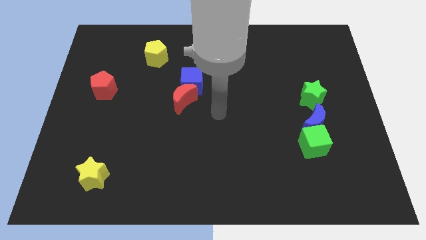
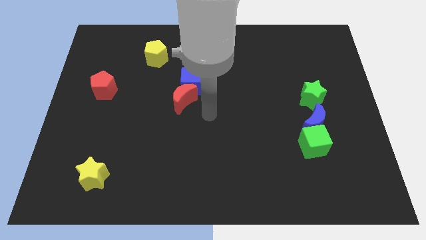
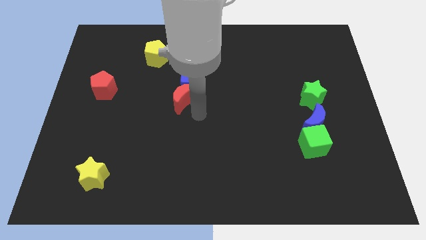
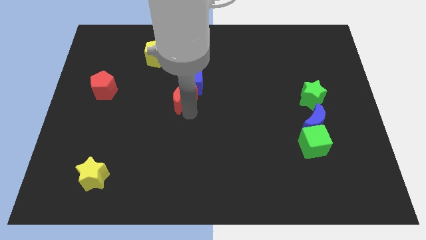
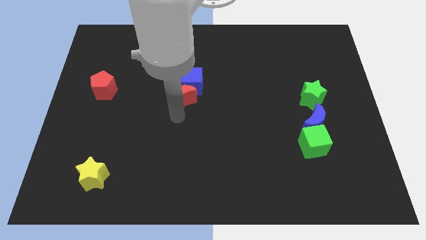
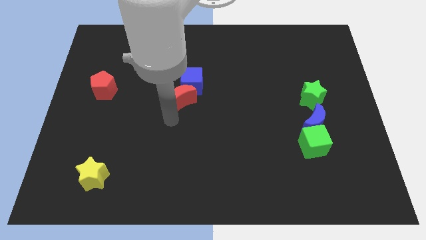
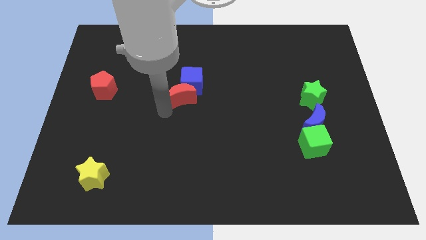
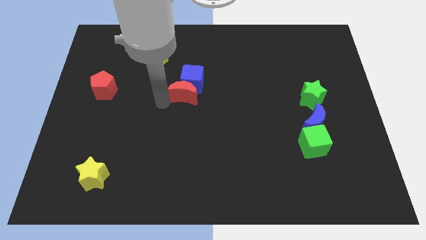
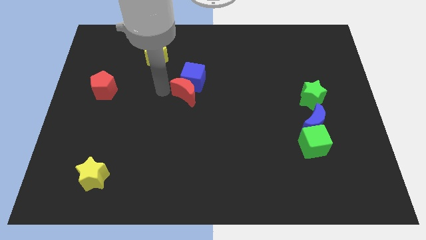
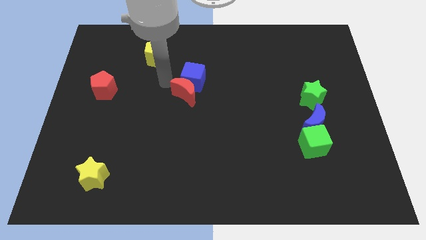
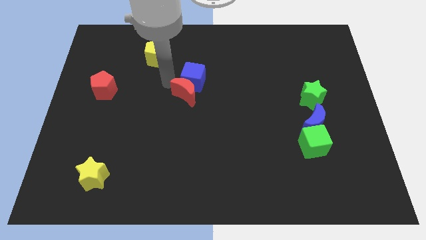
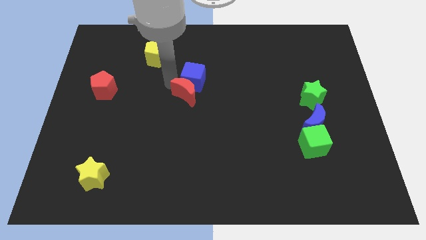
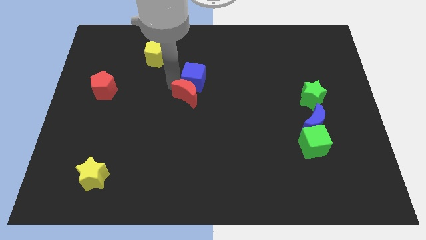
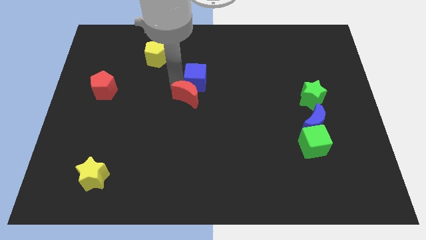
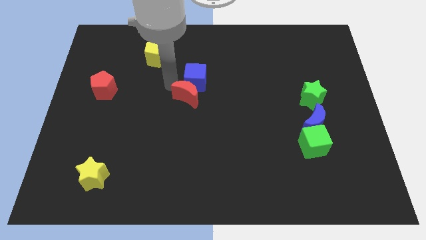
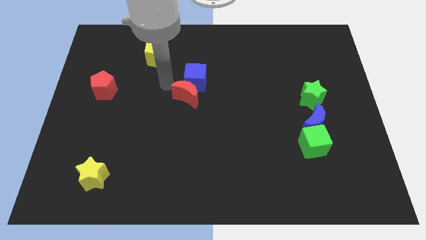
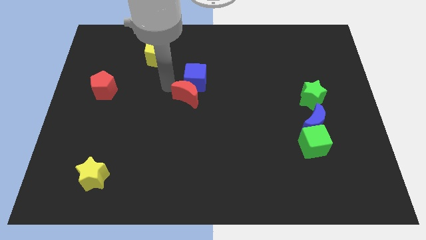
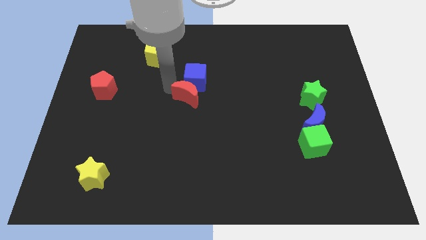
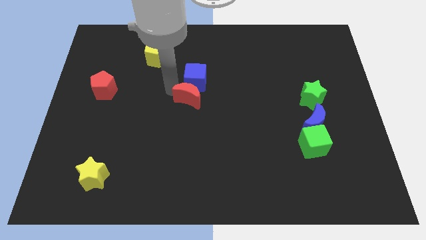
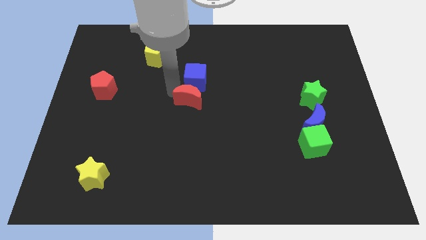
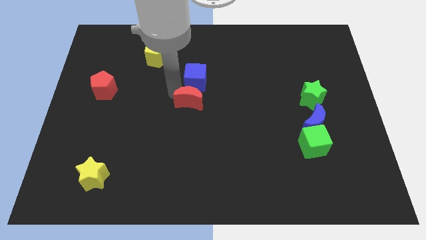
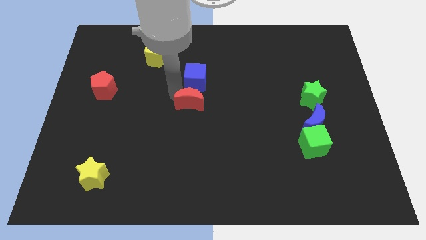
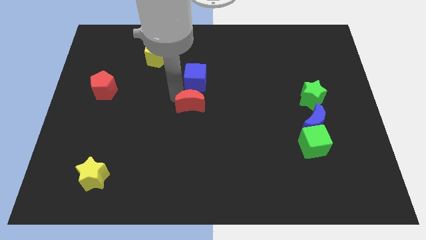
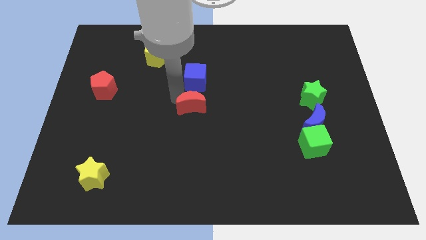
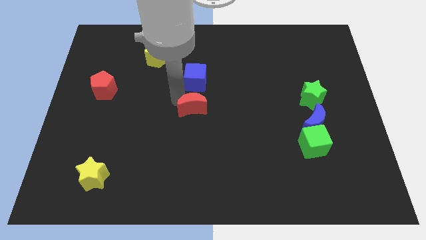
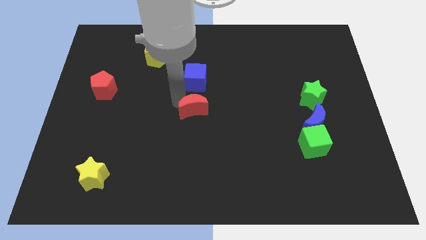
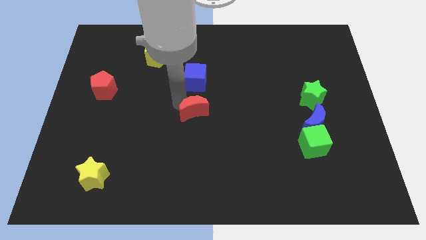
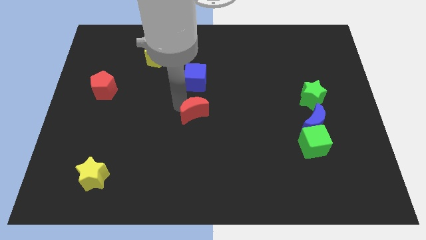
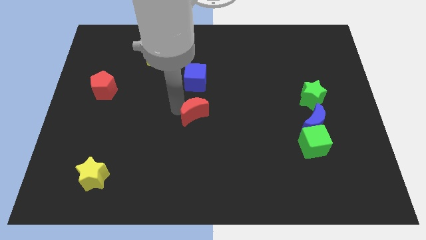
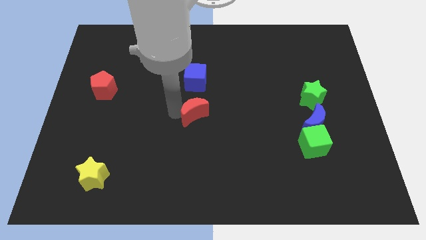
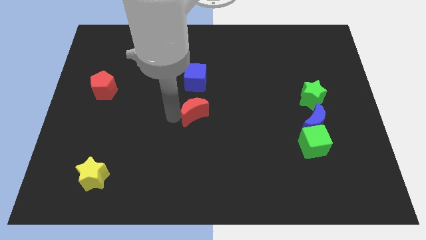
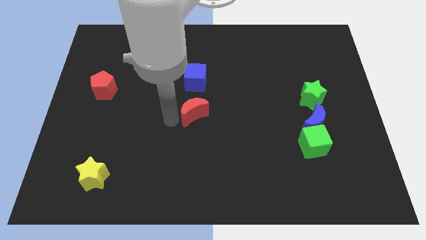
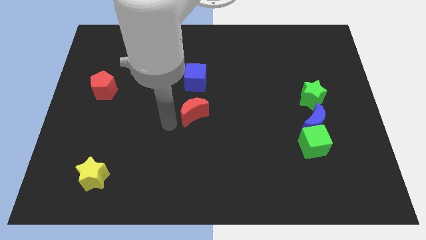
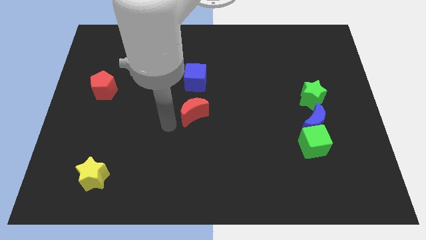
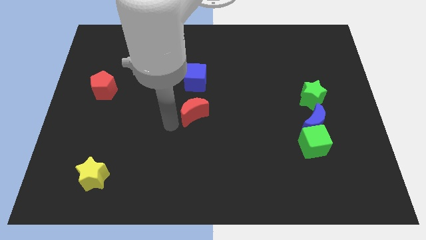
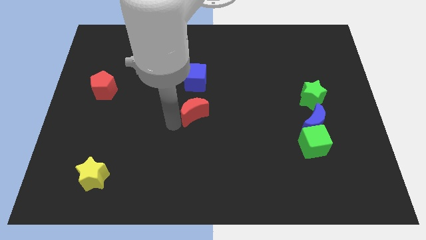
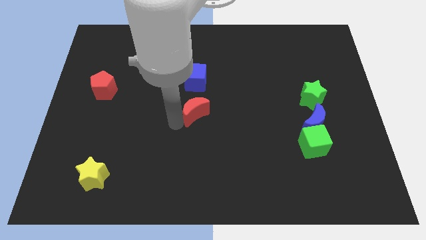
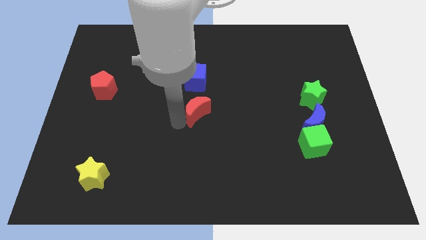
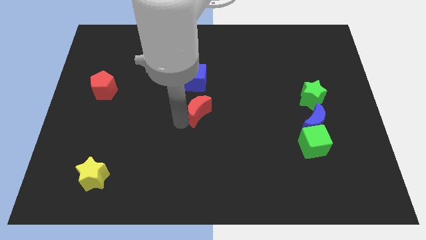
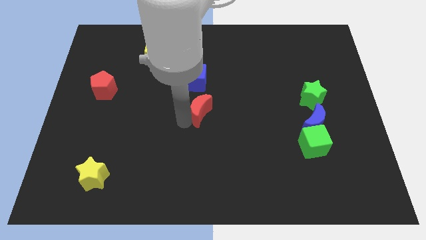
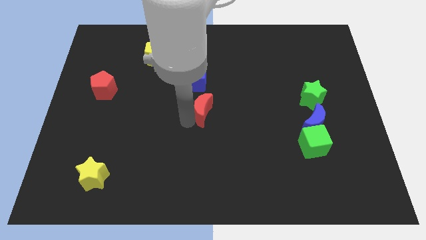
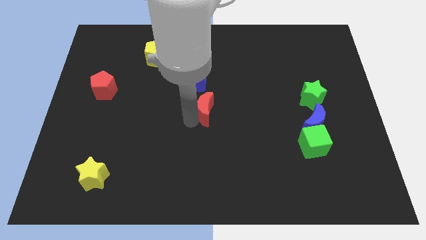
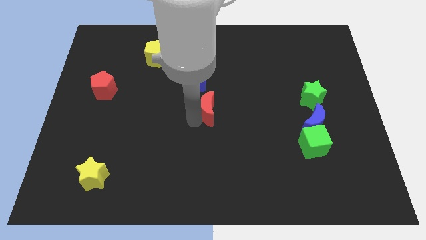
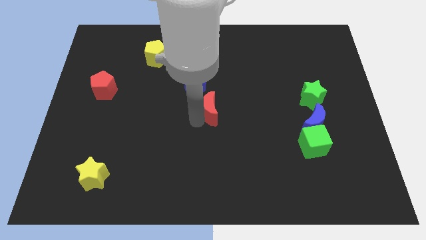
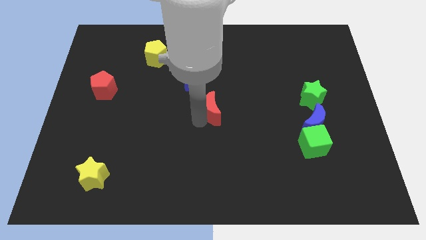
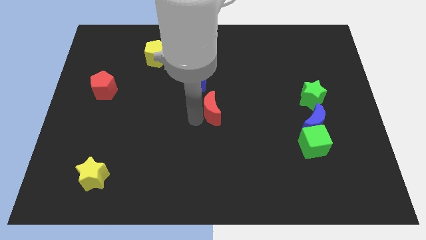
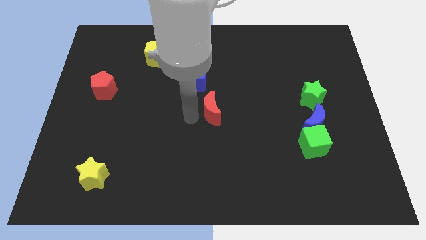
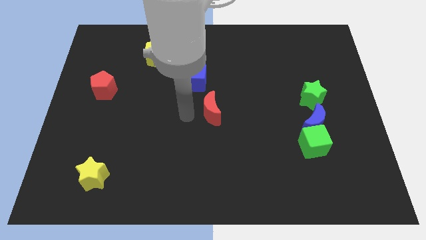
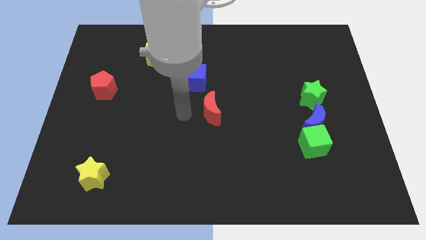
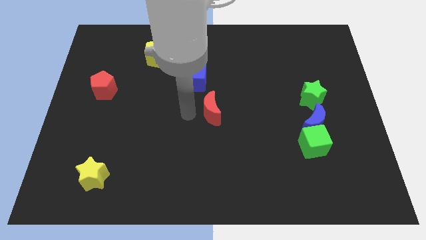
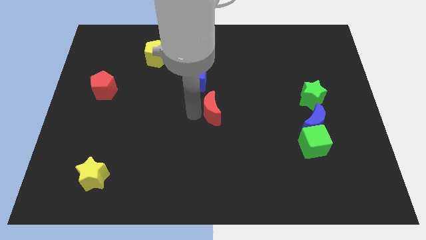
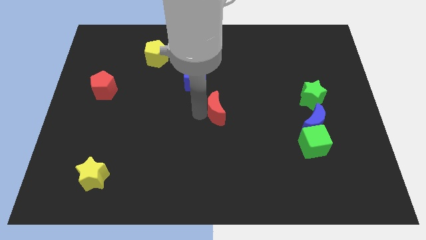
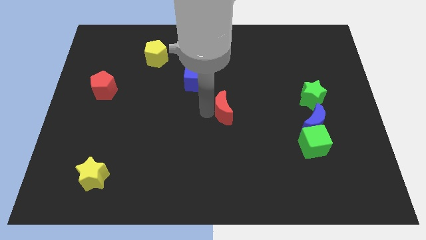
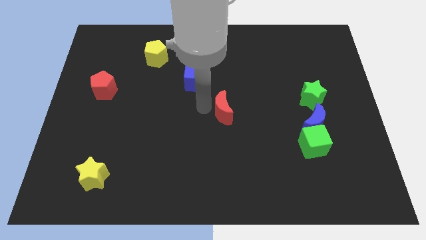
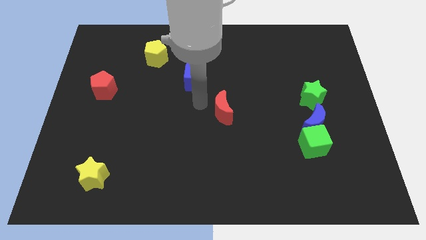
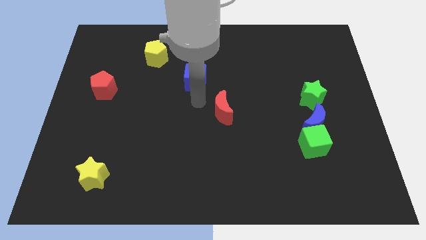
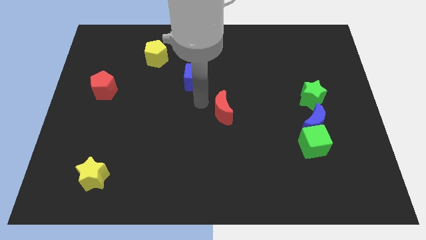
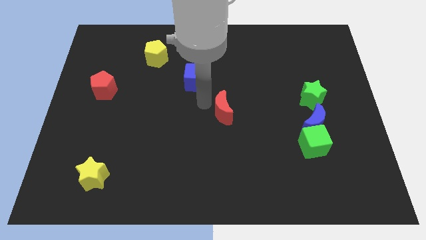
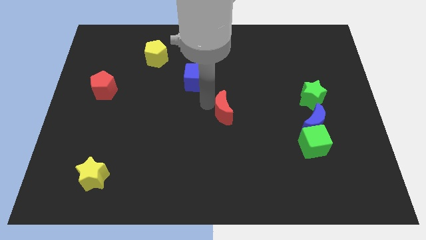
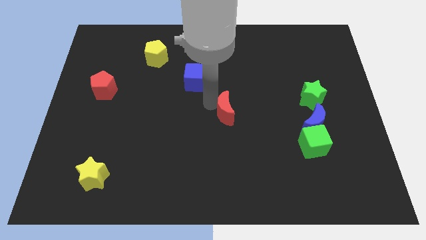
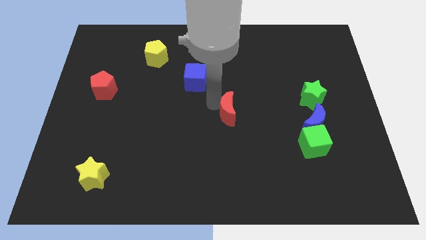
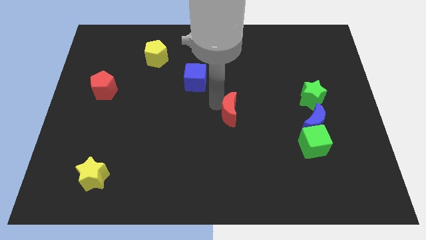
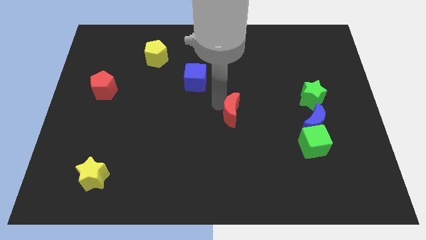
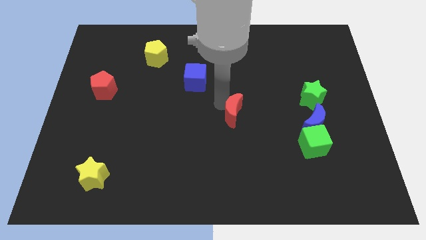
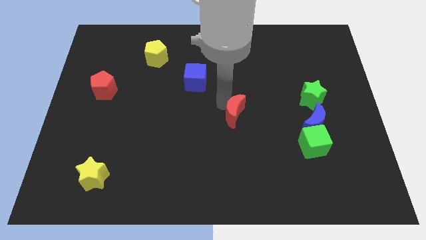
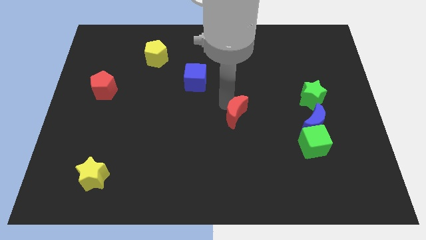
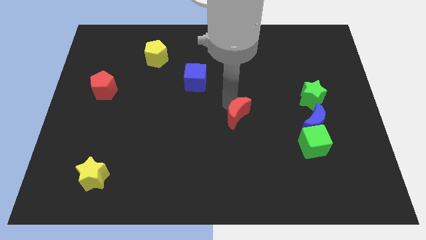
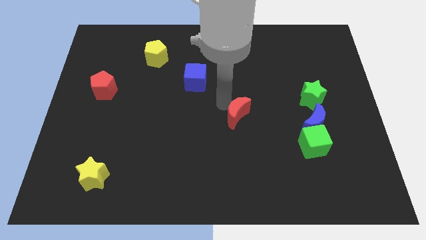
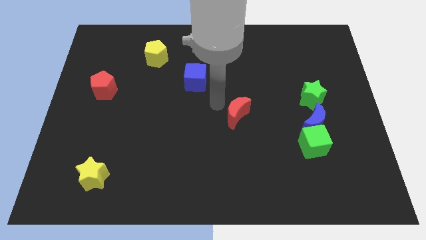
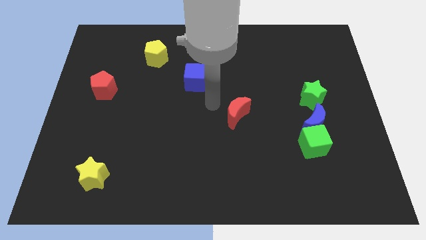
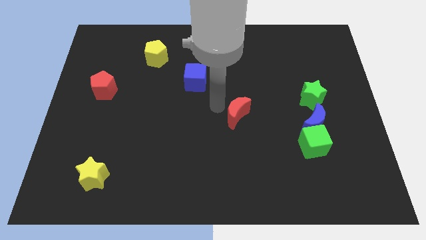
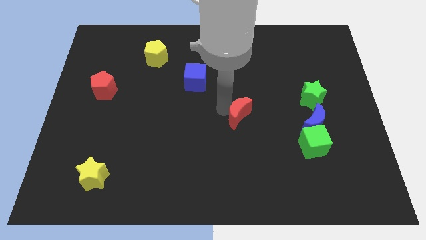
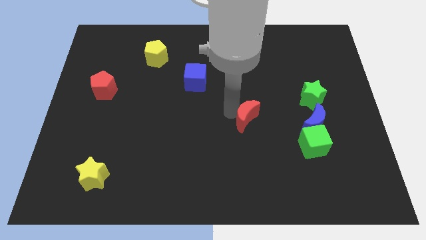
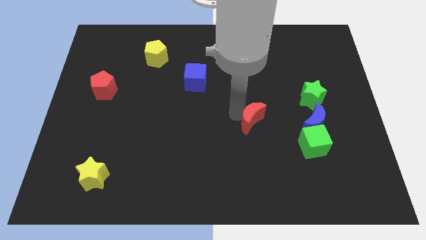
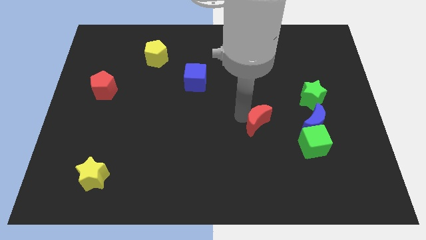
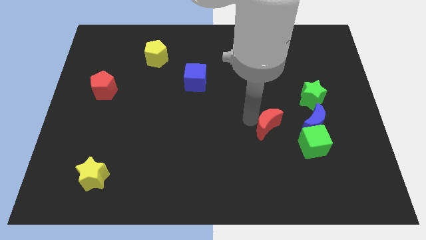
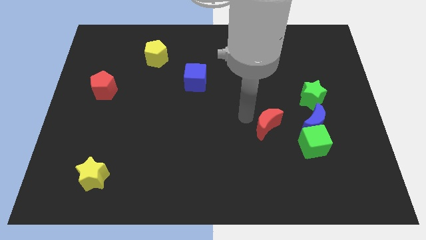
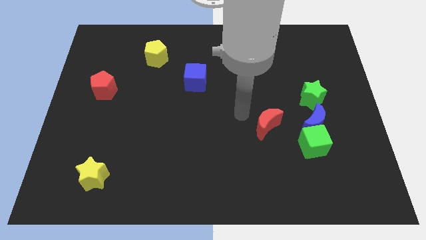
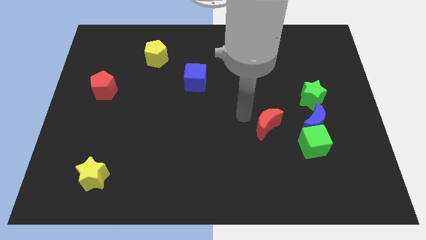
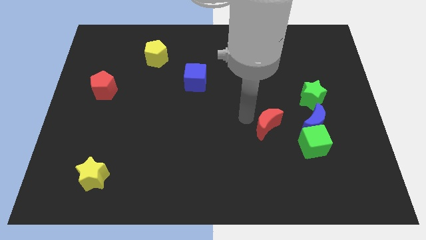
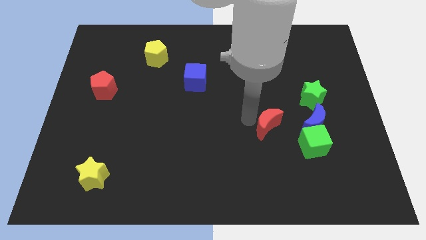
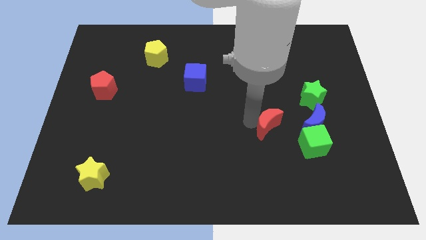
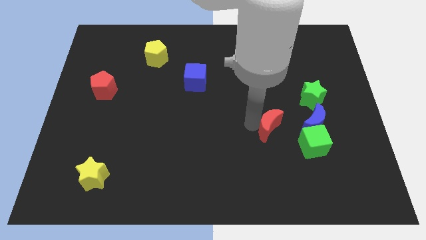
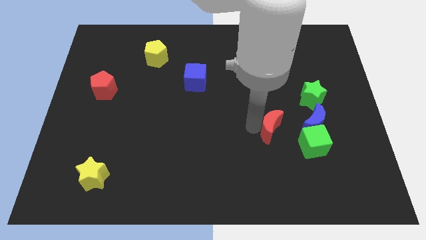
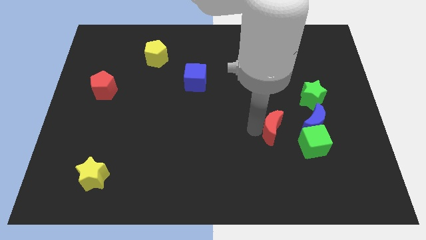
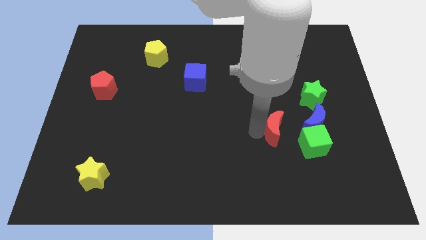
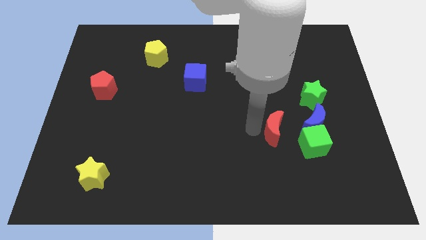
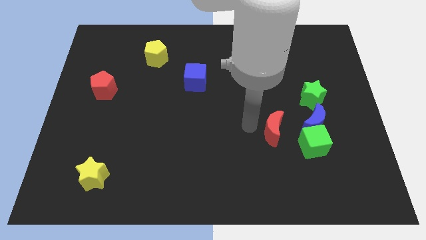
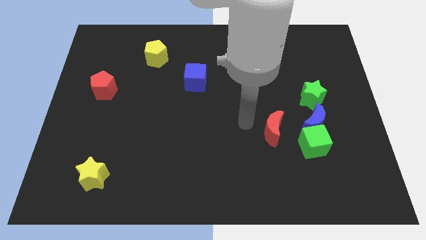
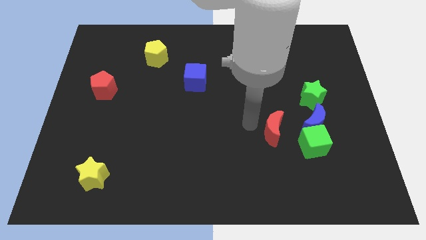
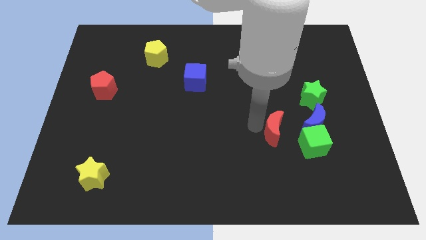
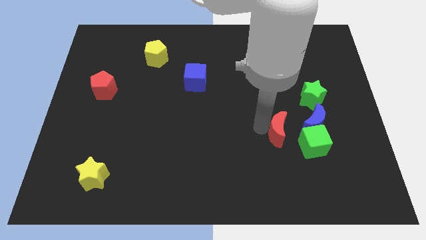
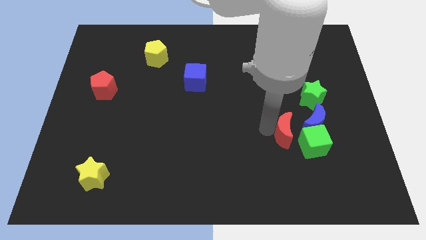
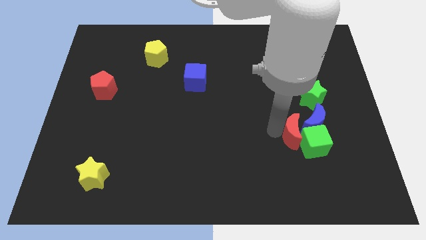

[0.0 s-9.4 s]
put the red moon next to the green cube
